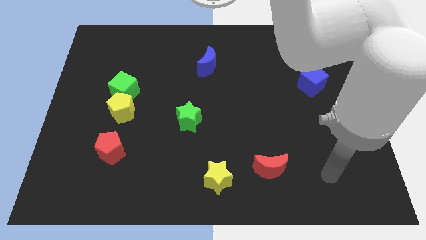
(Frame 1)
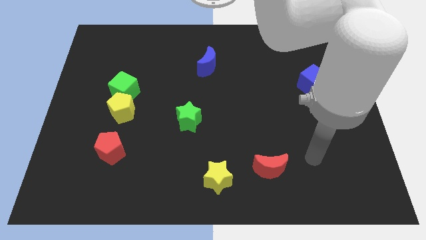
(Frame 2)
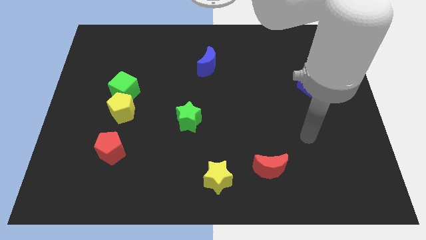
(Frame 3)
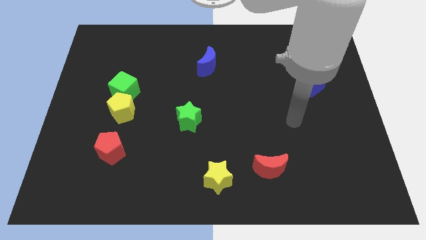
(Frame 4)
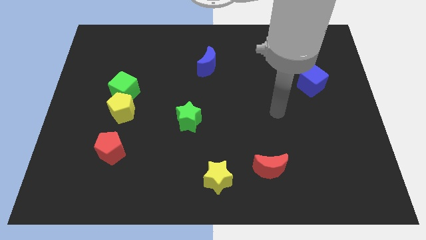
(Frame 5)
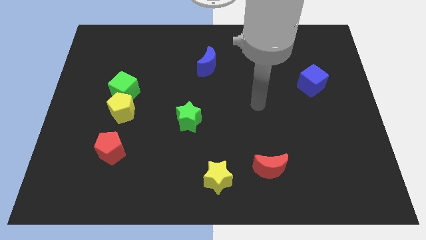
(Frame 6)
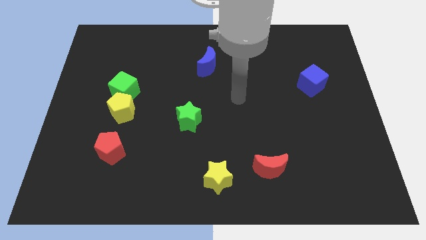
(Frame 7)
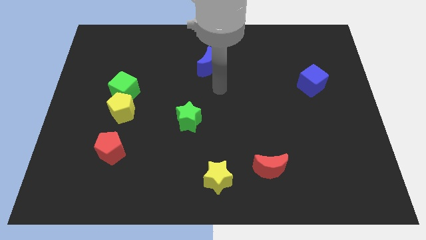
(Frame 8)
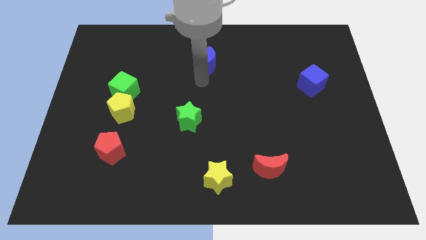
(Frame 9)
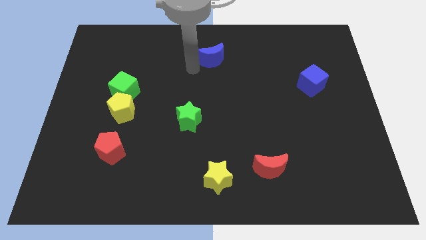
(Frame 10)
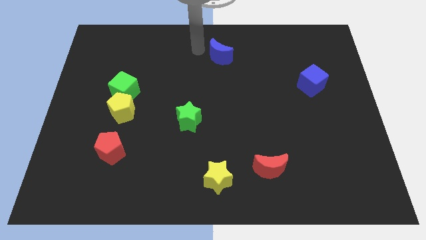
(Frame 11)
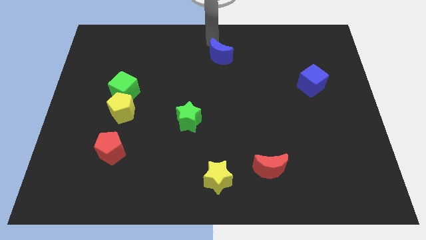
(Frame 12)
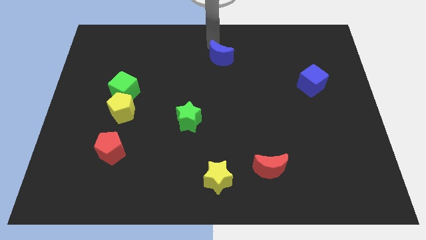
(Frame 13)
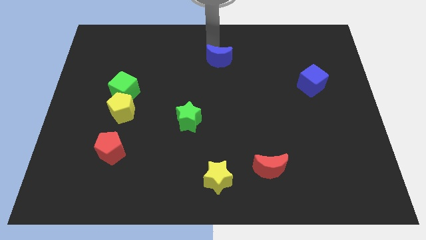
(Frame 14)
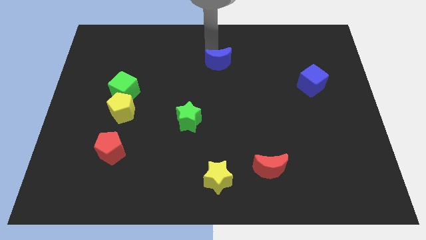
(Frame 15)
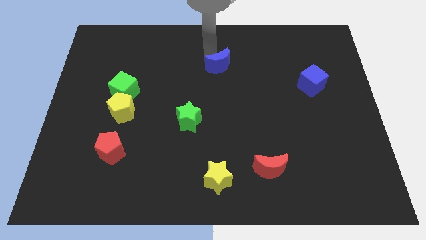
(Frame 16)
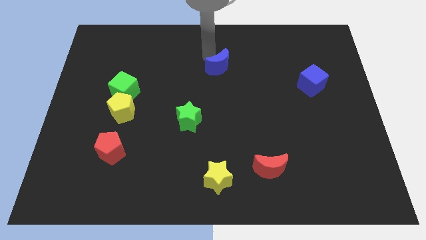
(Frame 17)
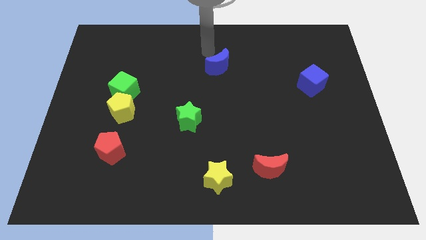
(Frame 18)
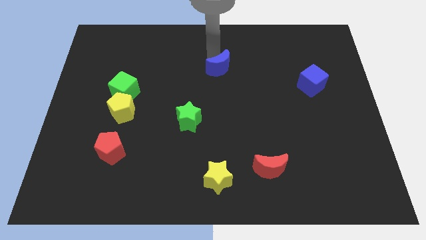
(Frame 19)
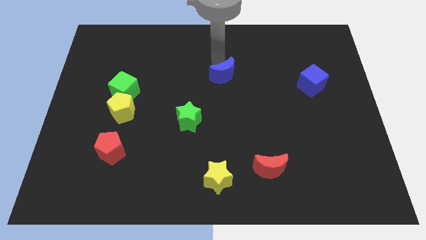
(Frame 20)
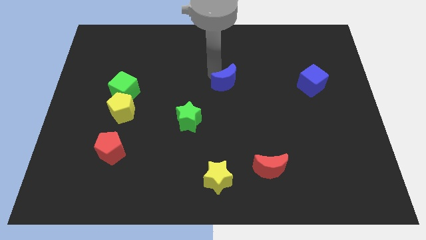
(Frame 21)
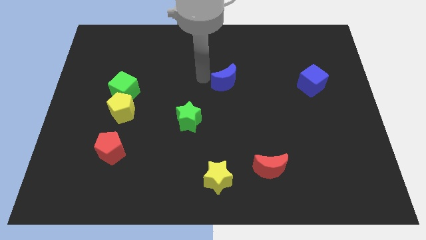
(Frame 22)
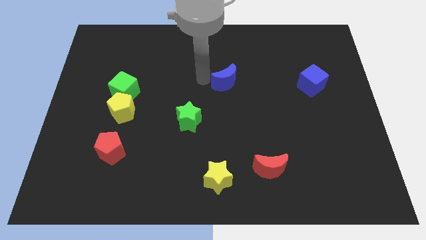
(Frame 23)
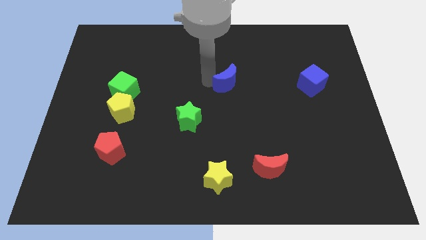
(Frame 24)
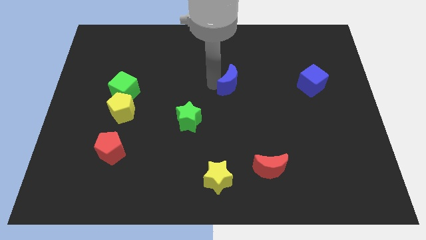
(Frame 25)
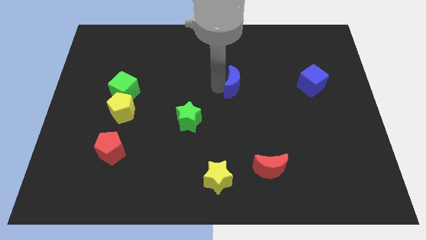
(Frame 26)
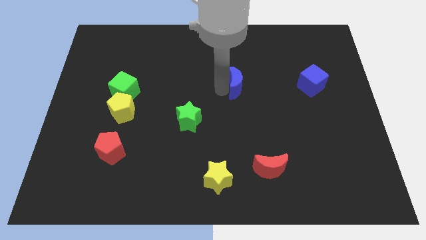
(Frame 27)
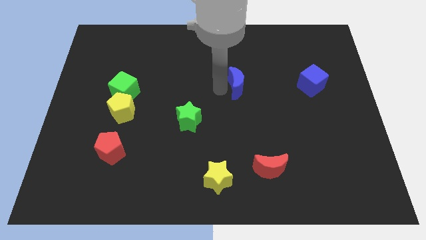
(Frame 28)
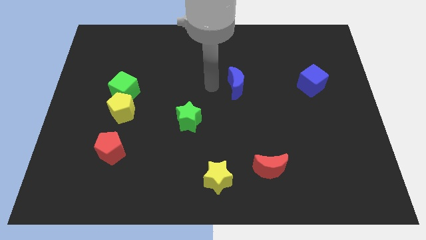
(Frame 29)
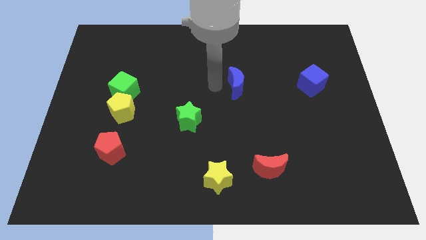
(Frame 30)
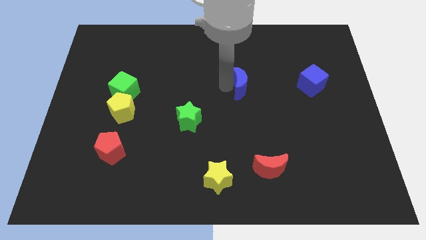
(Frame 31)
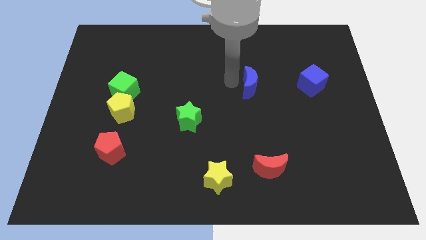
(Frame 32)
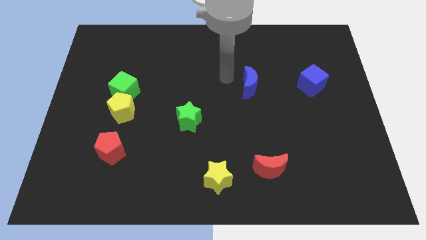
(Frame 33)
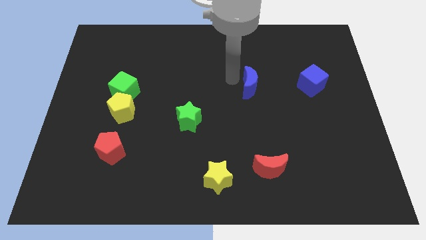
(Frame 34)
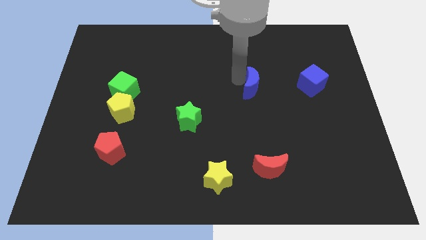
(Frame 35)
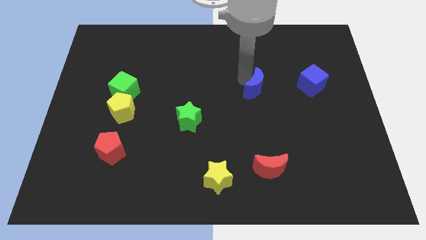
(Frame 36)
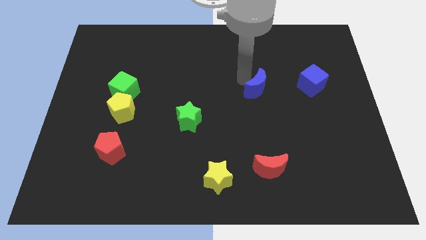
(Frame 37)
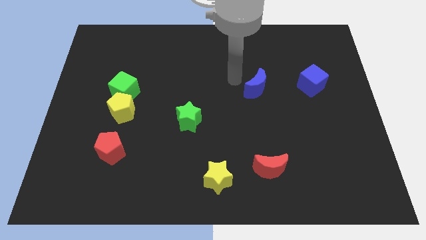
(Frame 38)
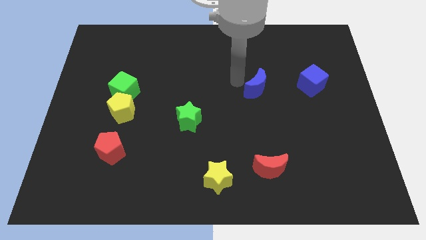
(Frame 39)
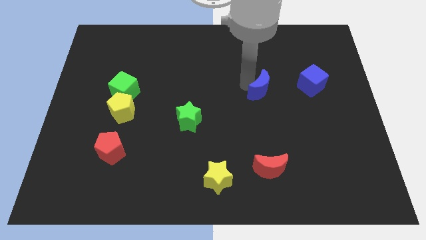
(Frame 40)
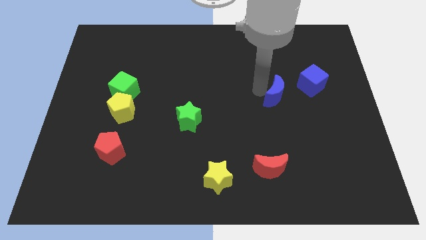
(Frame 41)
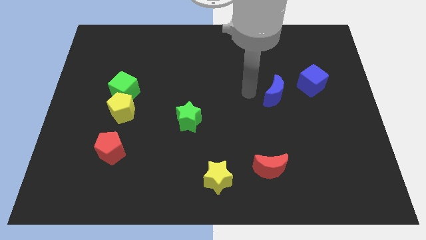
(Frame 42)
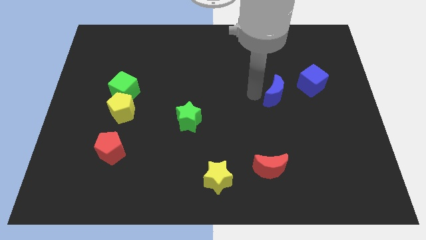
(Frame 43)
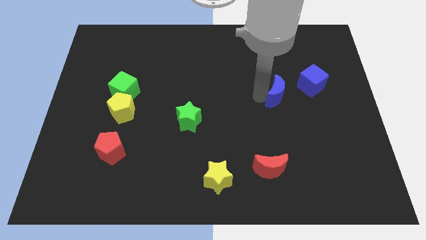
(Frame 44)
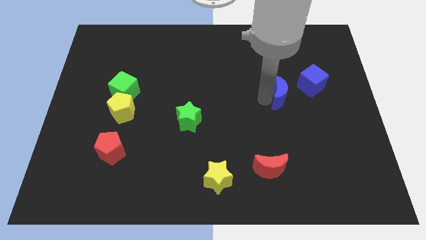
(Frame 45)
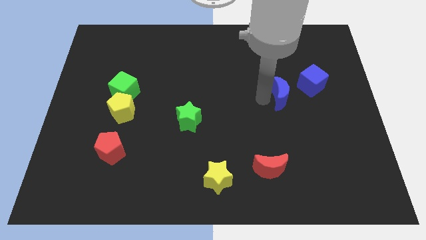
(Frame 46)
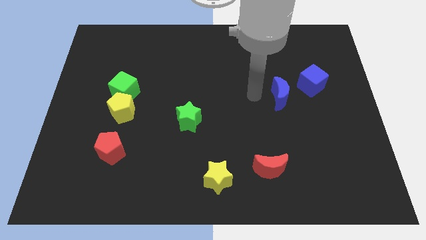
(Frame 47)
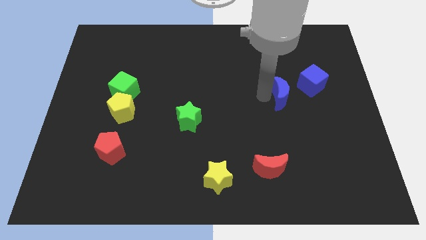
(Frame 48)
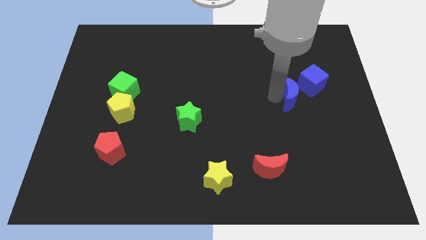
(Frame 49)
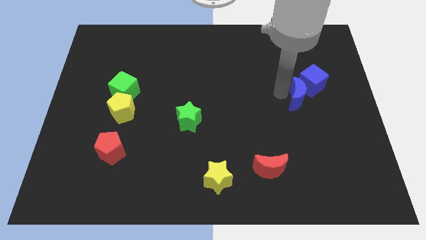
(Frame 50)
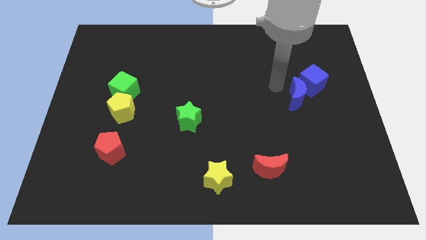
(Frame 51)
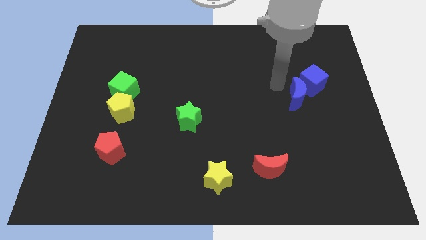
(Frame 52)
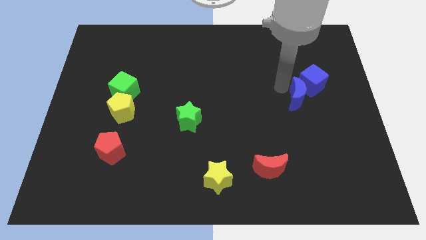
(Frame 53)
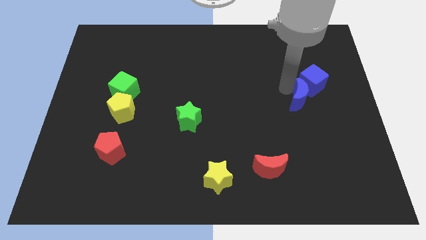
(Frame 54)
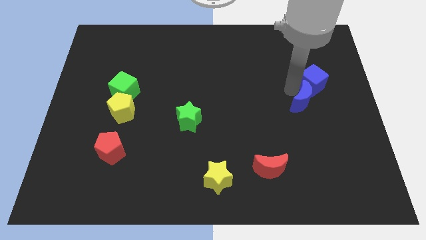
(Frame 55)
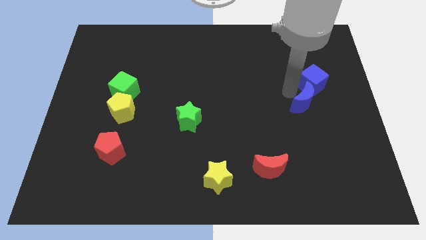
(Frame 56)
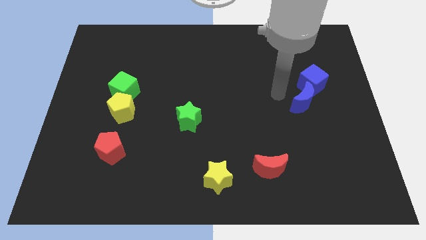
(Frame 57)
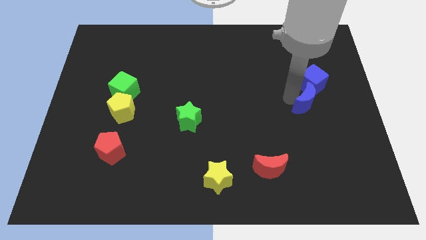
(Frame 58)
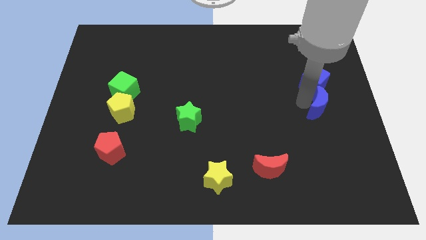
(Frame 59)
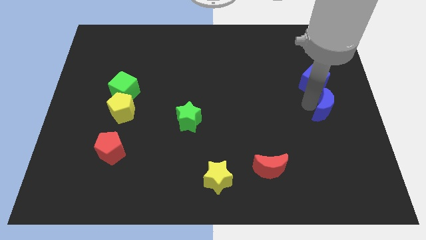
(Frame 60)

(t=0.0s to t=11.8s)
push the blue moon to the right side
